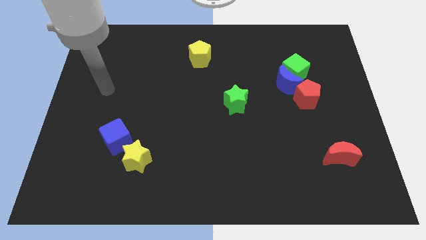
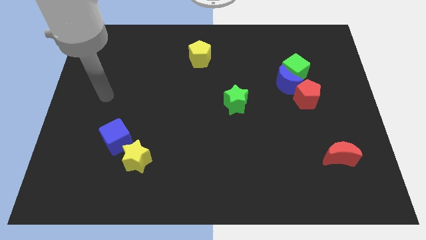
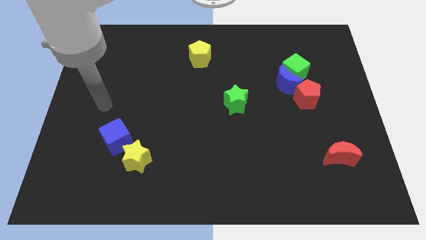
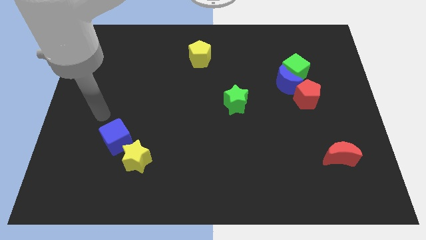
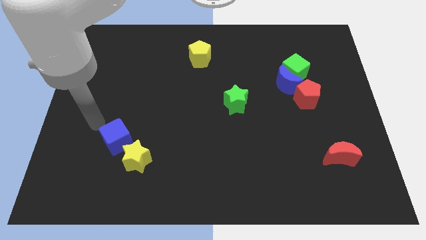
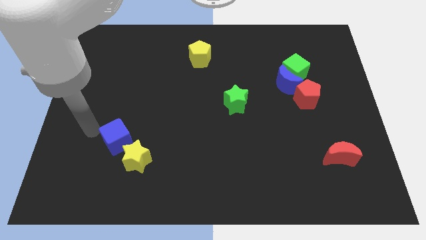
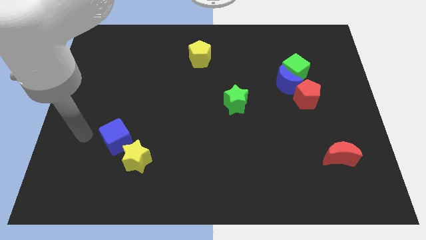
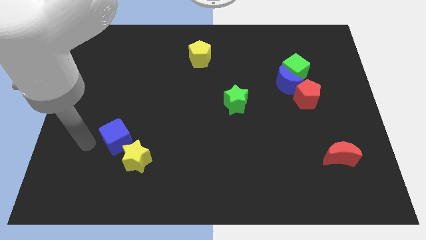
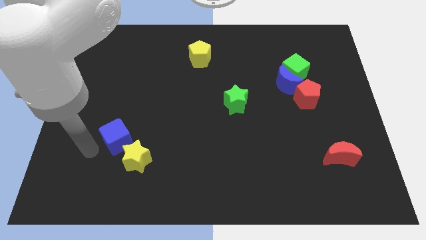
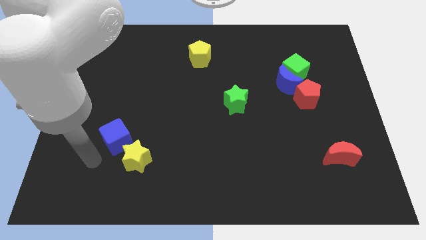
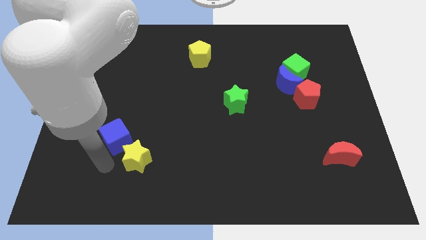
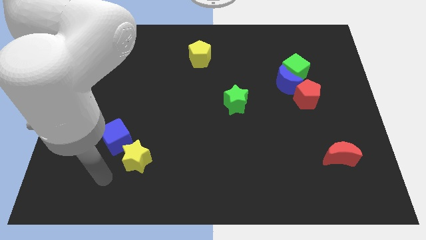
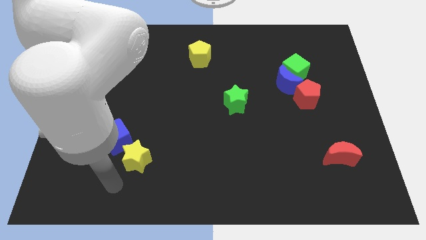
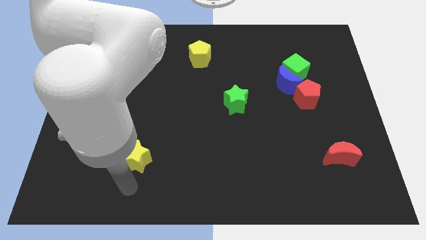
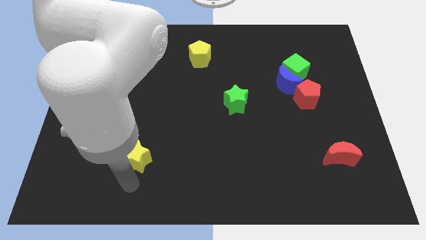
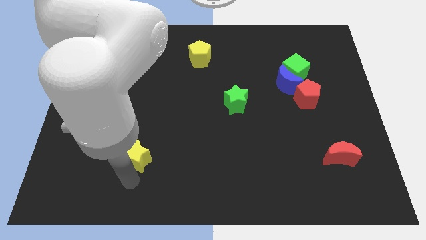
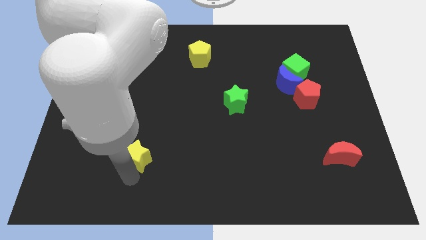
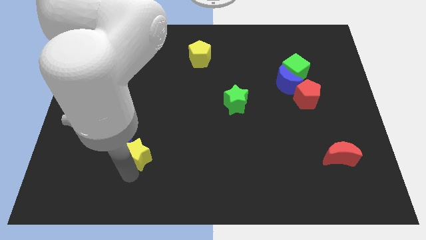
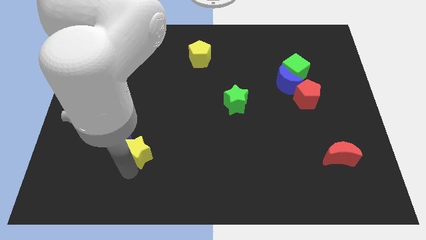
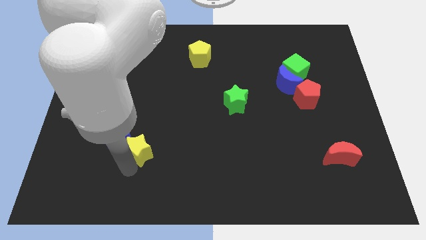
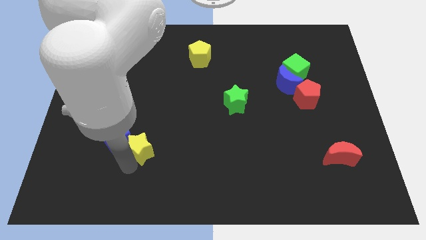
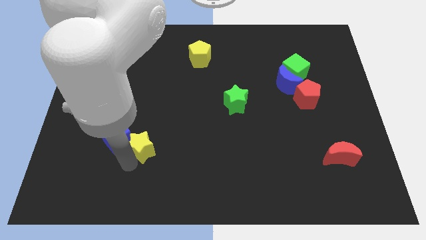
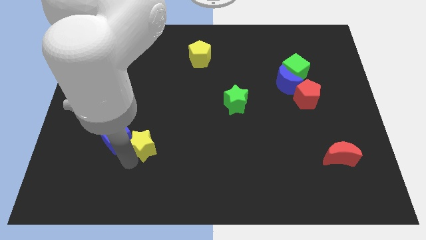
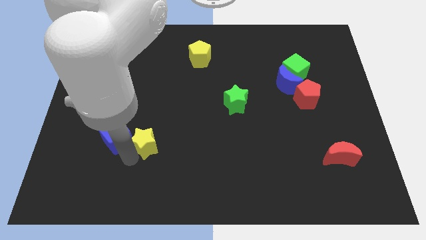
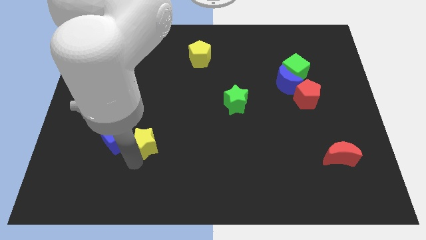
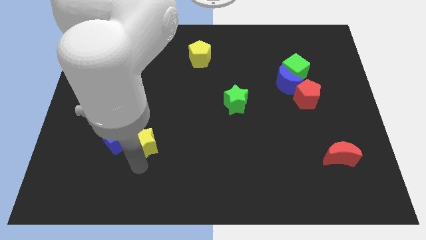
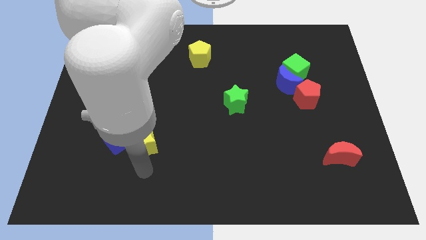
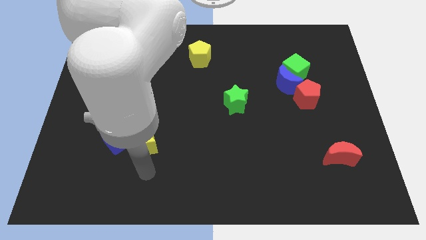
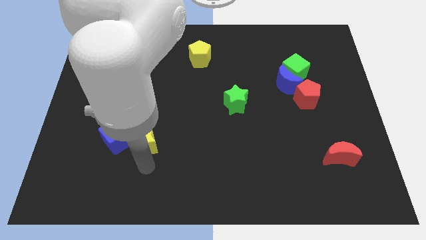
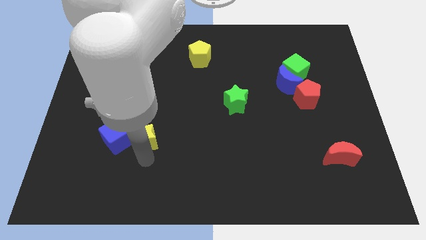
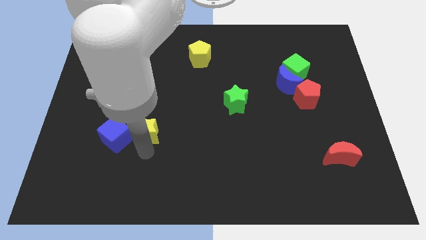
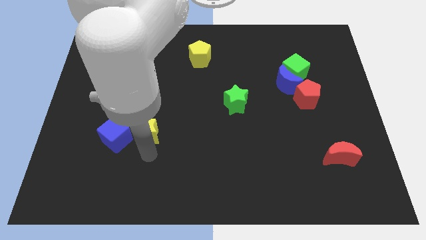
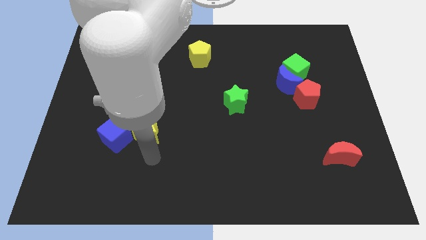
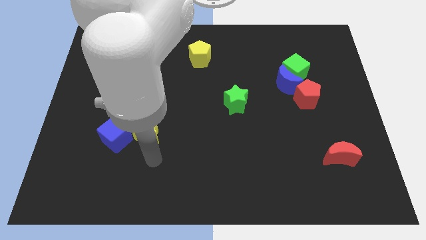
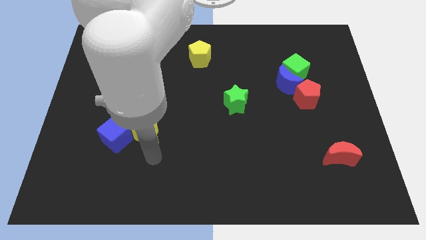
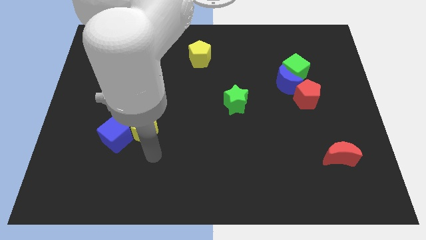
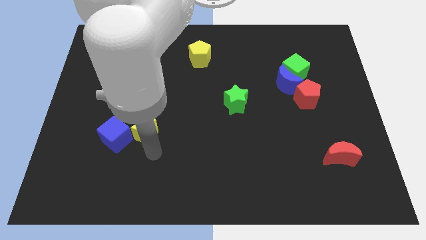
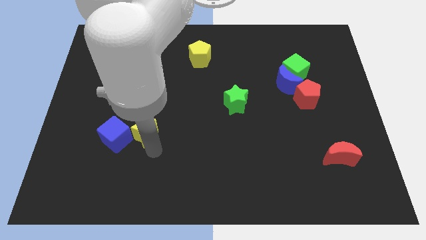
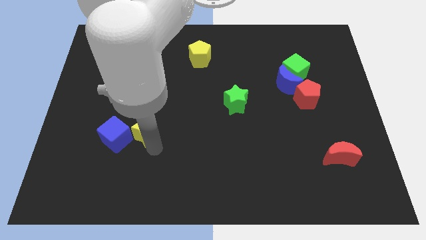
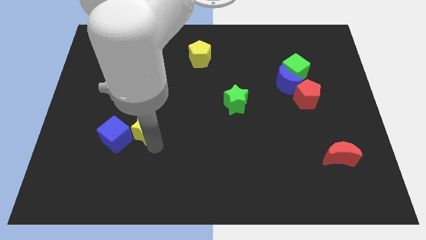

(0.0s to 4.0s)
slightly move the yellow star upwards

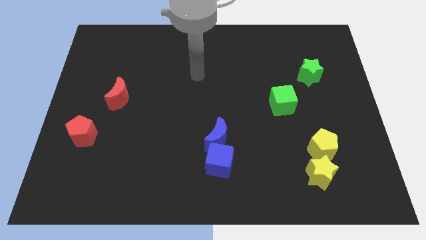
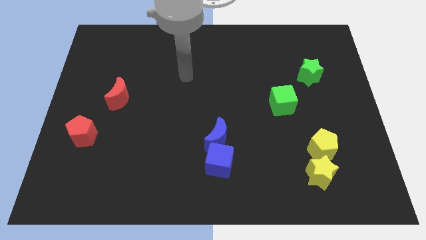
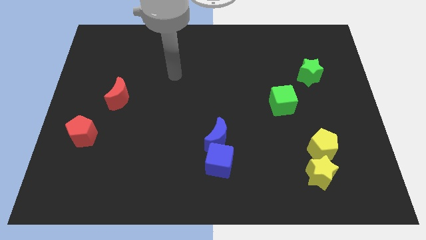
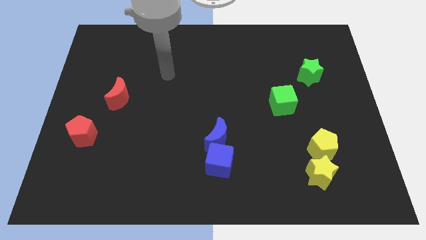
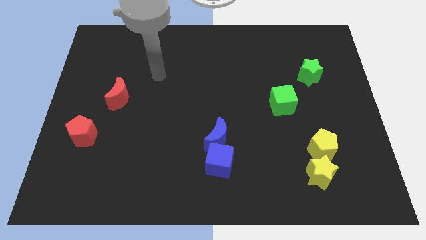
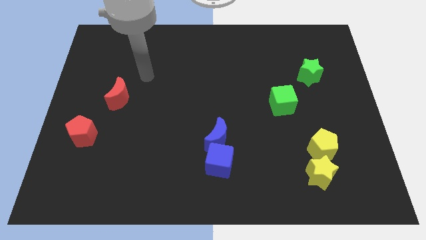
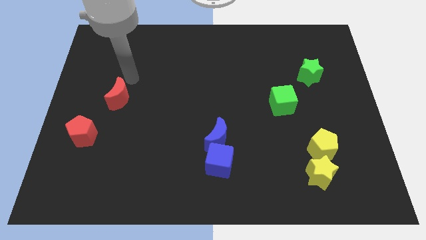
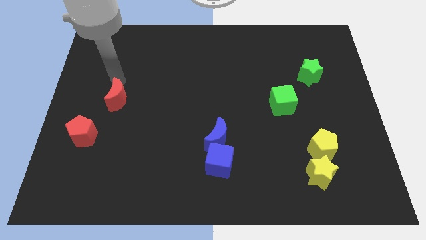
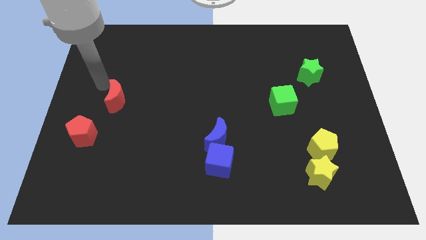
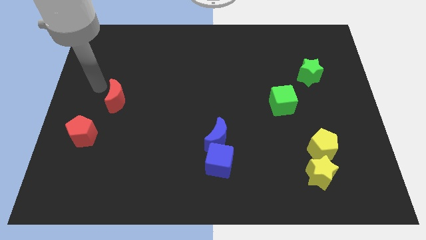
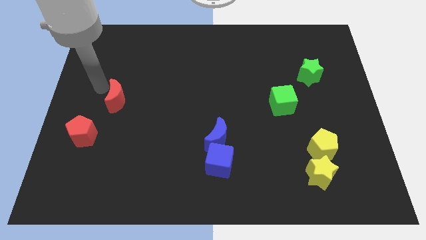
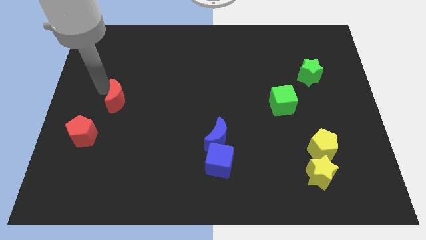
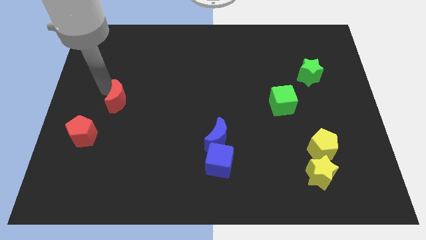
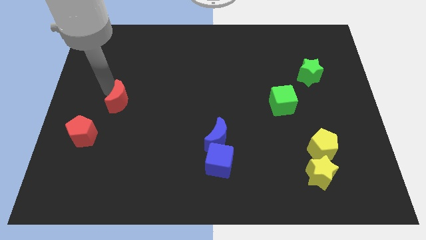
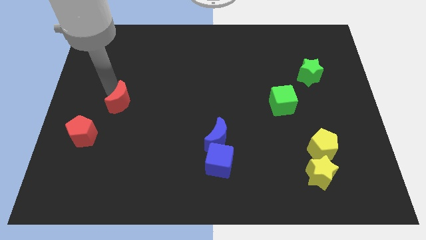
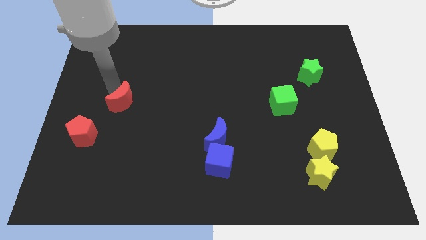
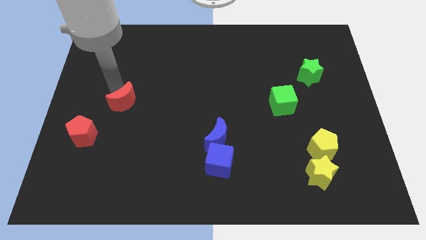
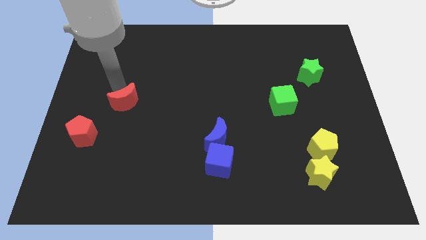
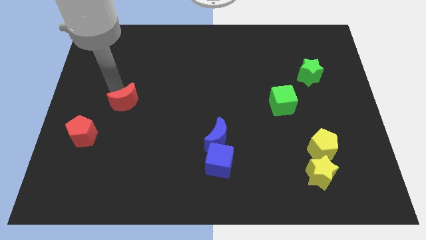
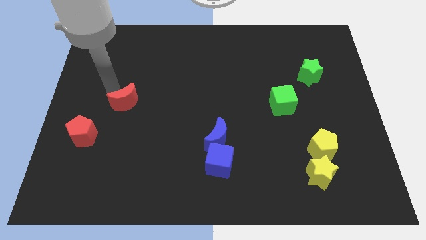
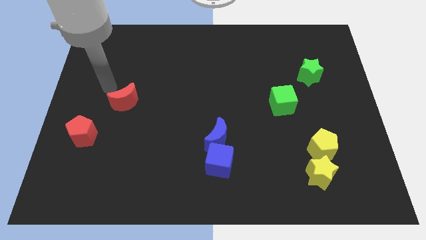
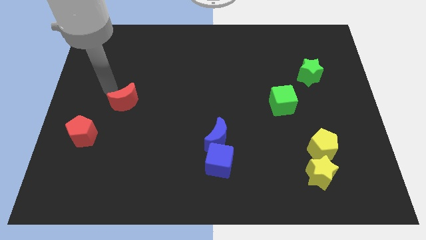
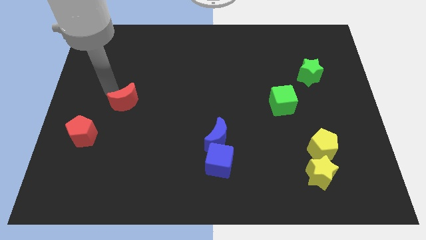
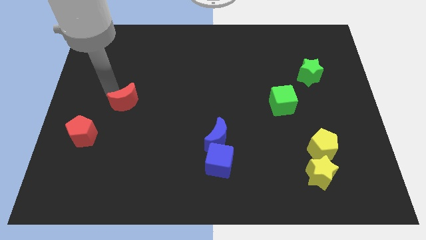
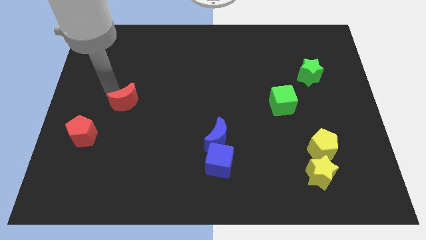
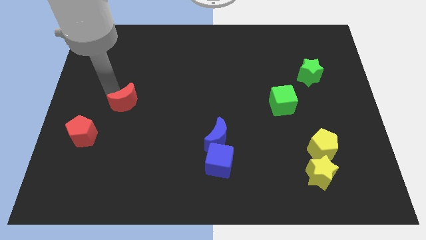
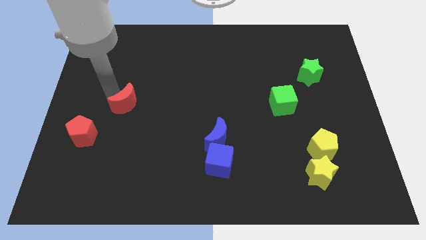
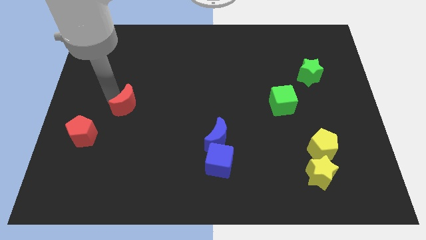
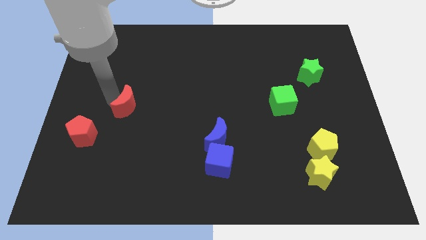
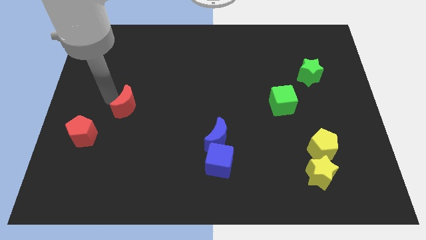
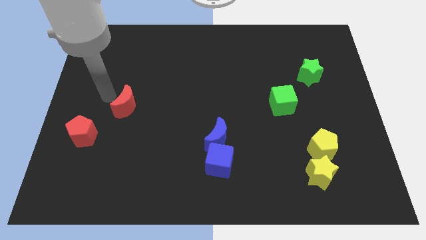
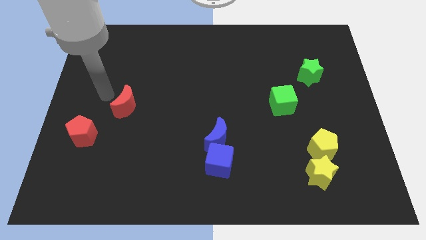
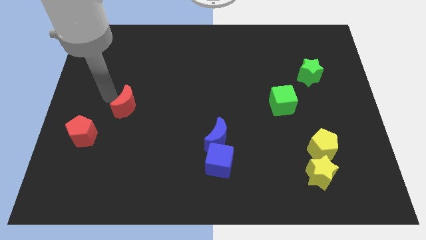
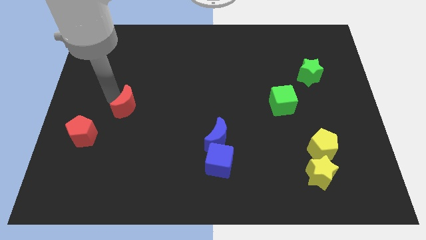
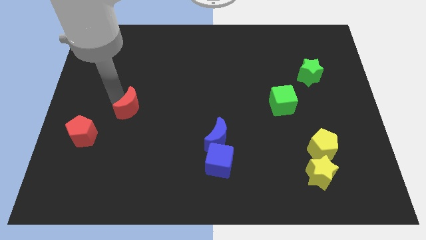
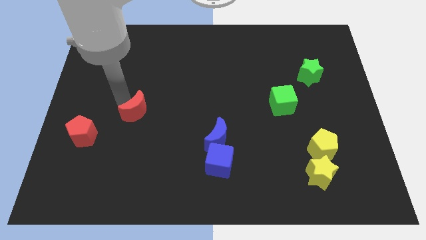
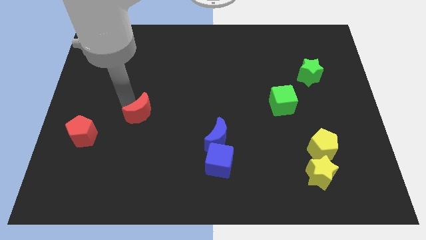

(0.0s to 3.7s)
slightly move the red moon down and right

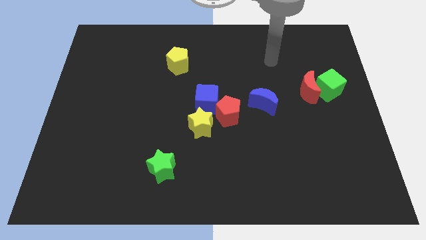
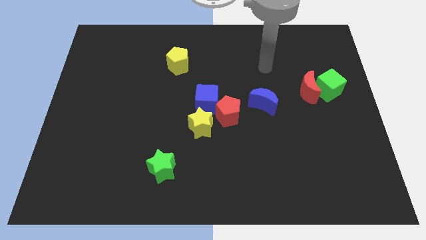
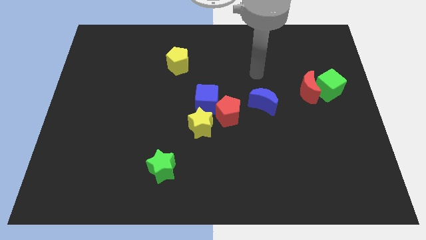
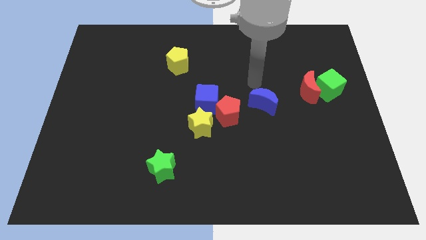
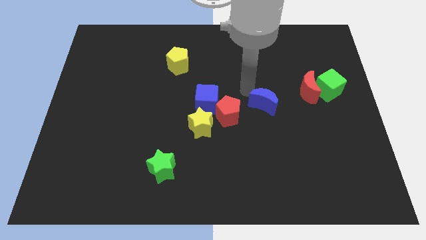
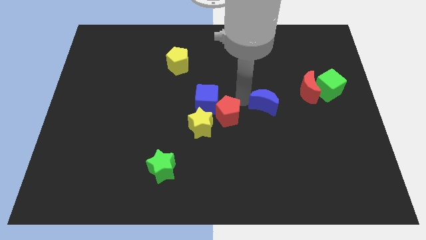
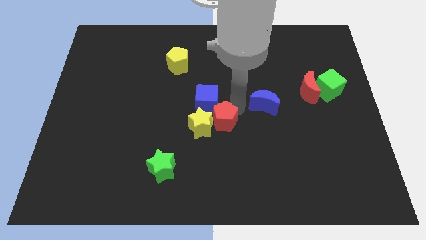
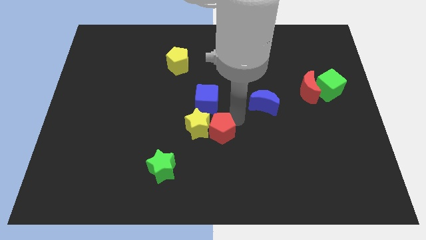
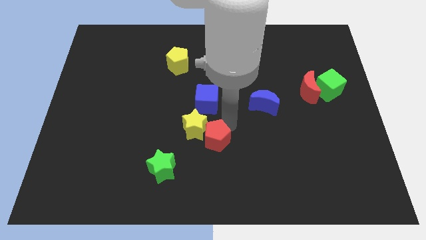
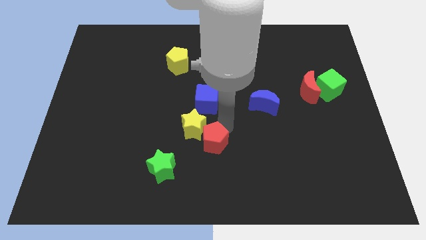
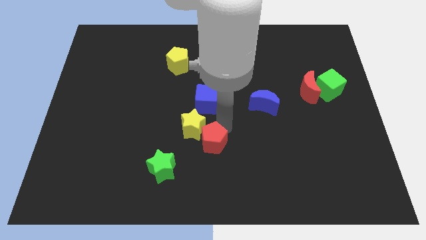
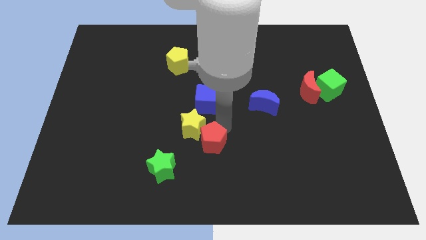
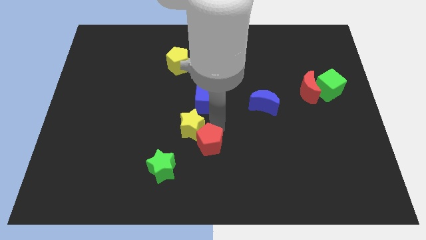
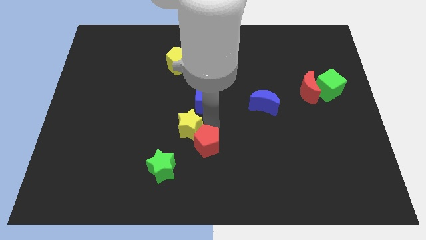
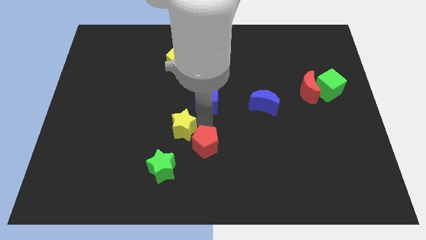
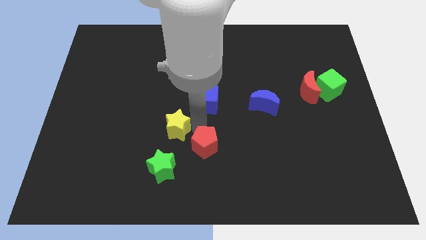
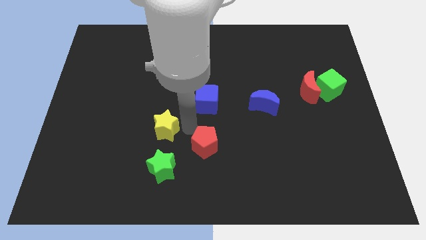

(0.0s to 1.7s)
slide the yellow star to the left somewhat
